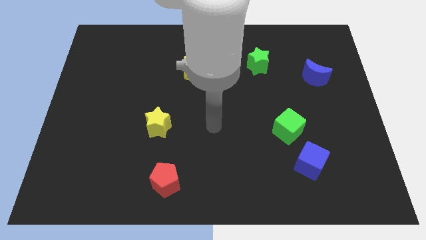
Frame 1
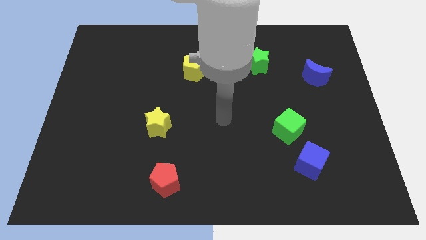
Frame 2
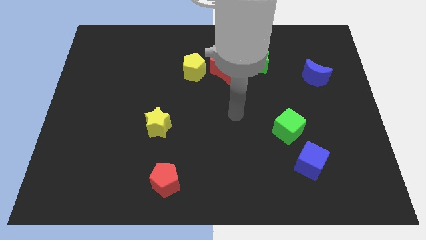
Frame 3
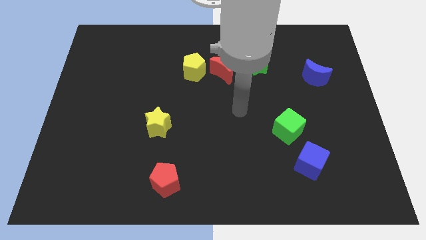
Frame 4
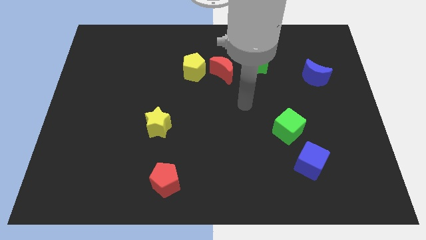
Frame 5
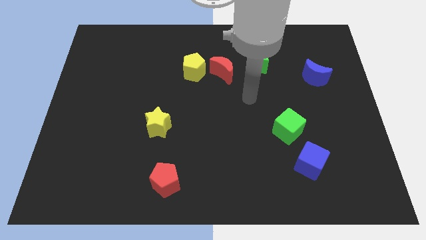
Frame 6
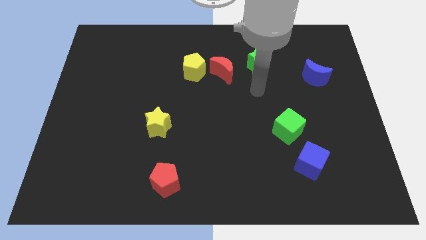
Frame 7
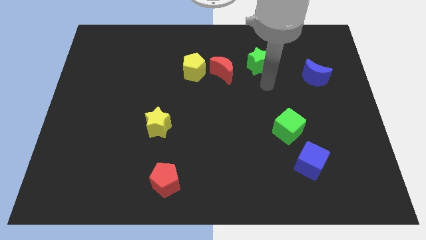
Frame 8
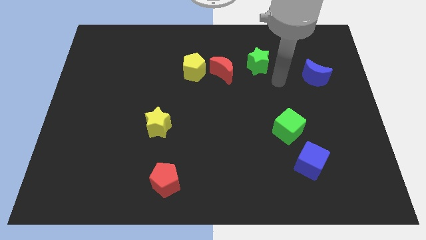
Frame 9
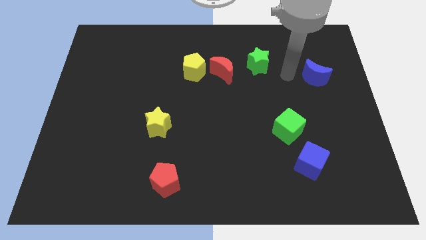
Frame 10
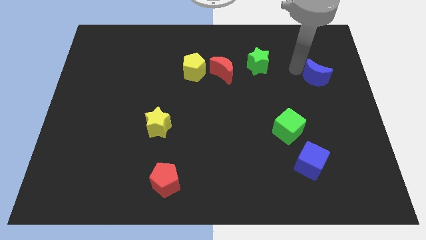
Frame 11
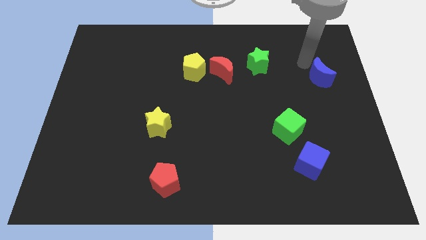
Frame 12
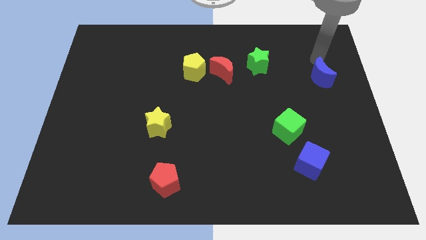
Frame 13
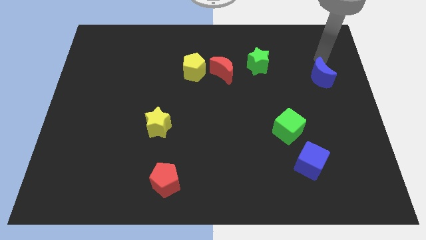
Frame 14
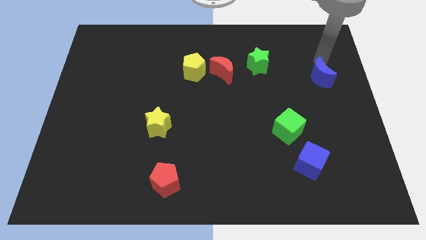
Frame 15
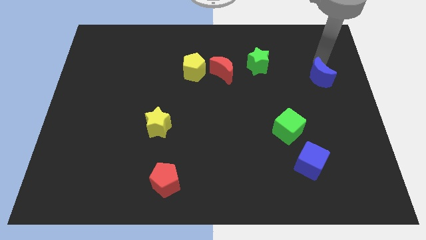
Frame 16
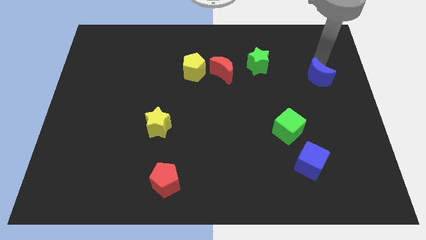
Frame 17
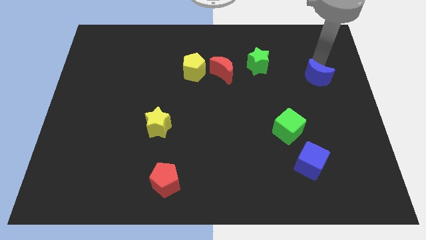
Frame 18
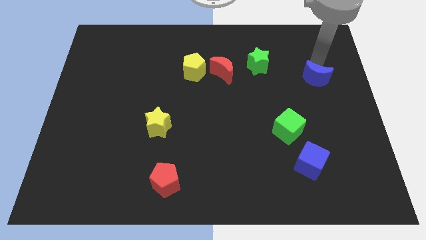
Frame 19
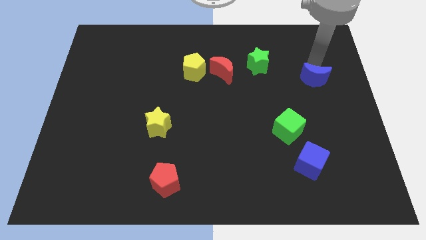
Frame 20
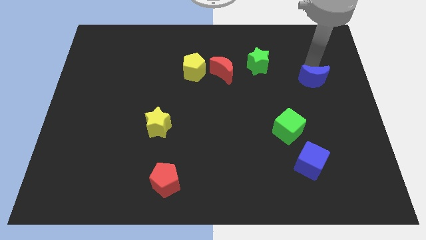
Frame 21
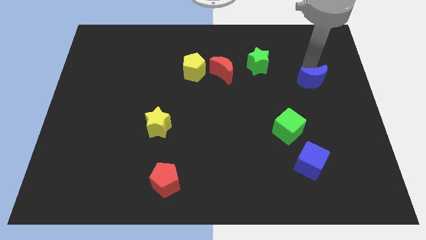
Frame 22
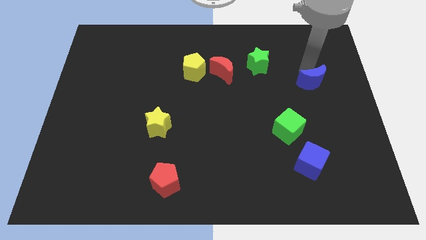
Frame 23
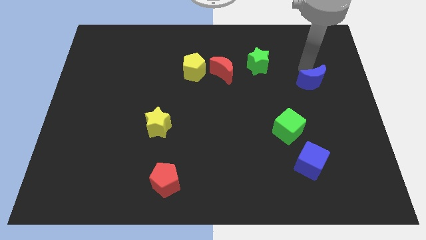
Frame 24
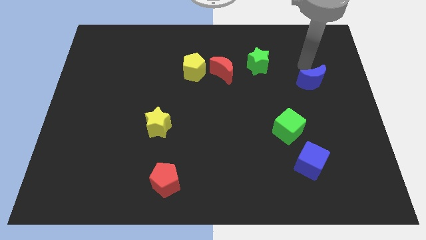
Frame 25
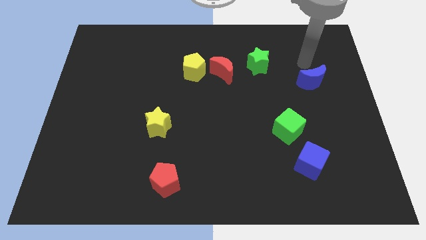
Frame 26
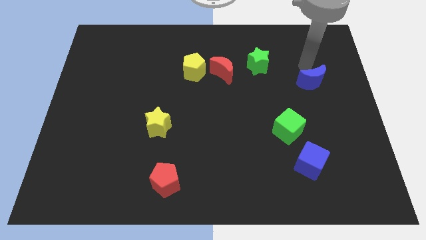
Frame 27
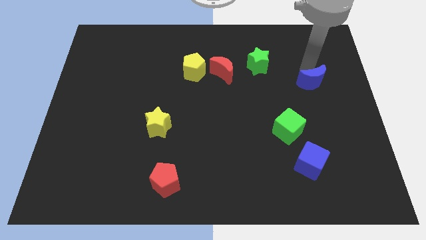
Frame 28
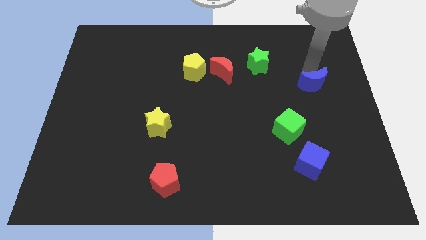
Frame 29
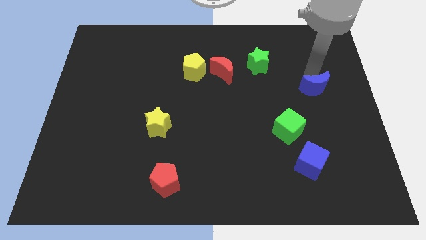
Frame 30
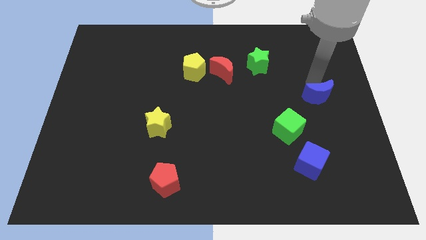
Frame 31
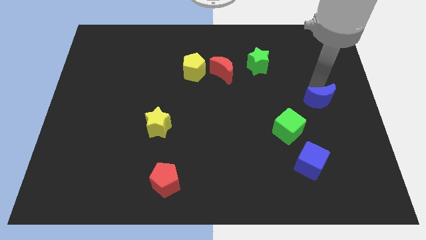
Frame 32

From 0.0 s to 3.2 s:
move the blue moon downwards a little

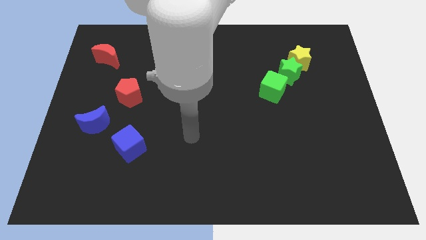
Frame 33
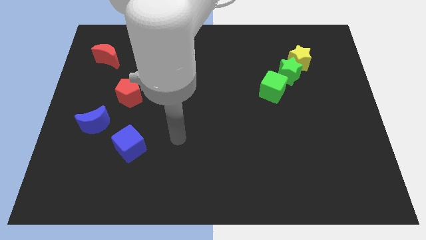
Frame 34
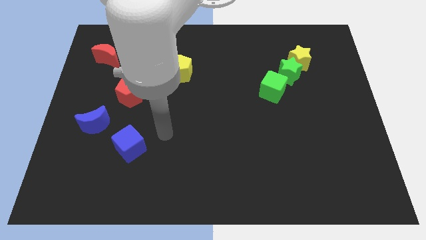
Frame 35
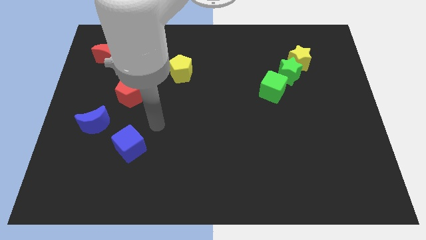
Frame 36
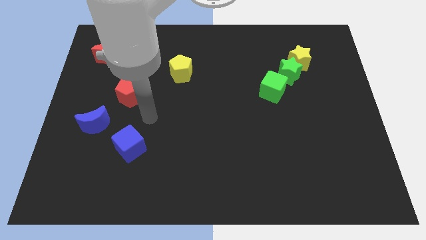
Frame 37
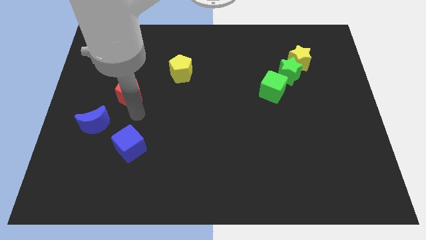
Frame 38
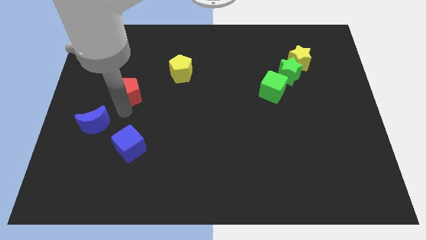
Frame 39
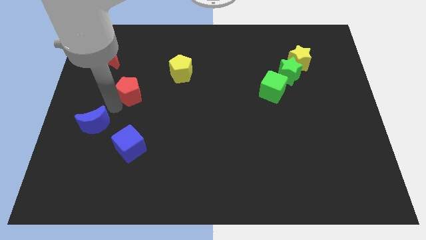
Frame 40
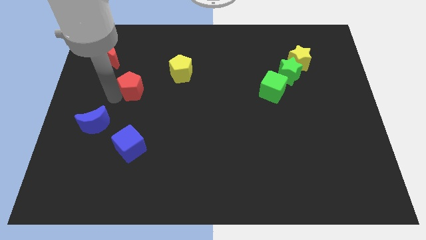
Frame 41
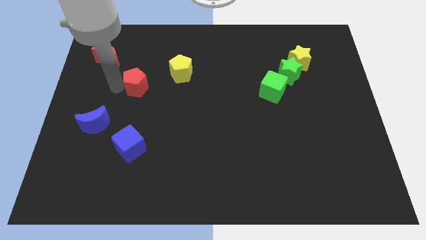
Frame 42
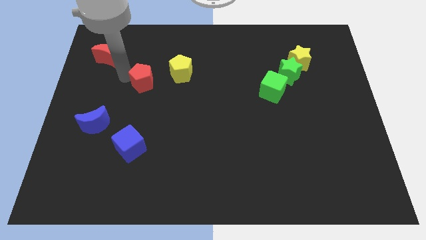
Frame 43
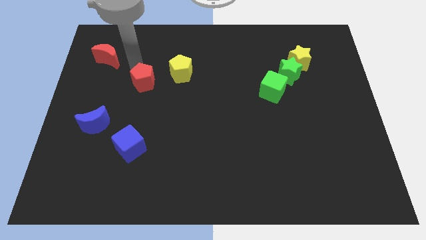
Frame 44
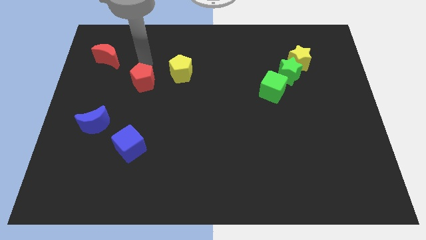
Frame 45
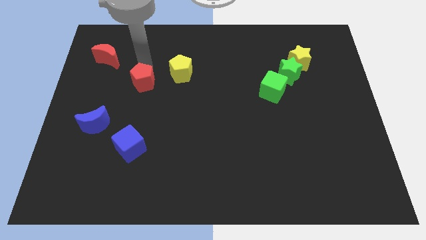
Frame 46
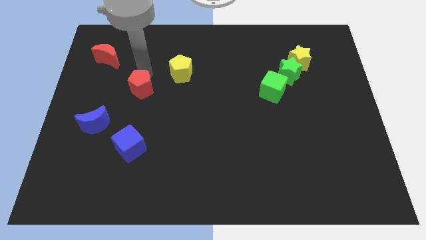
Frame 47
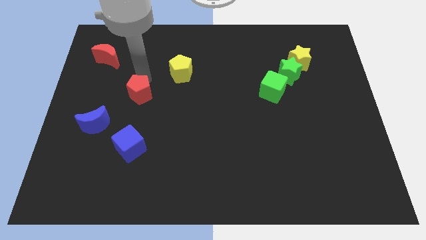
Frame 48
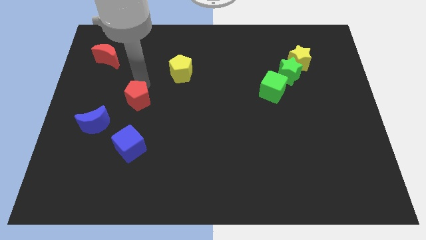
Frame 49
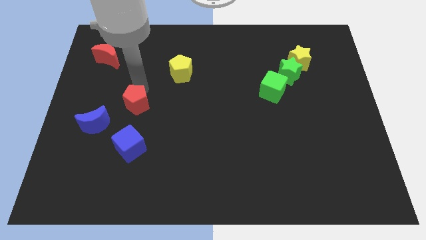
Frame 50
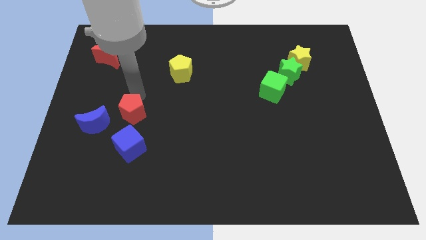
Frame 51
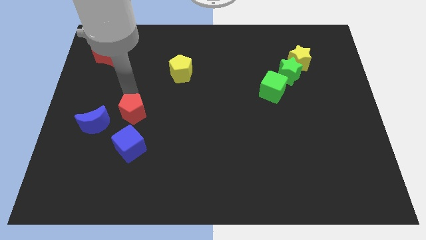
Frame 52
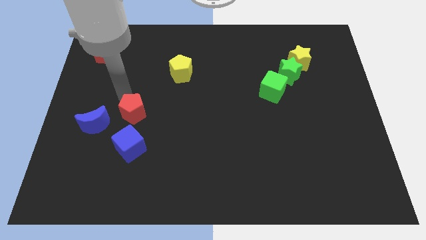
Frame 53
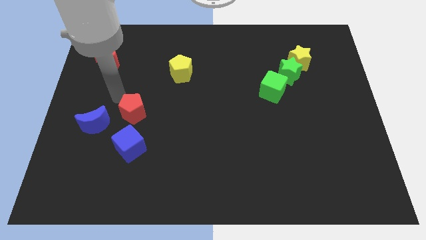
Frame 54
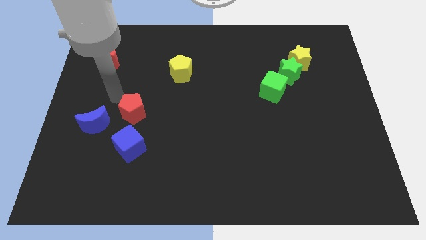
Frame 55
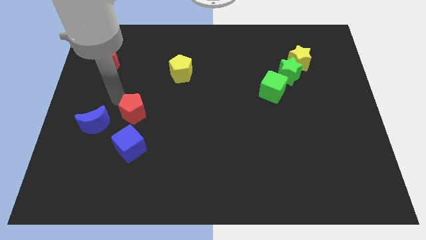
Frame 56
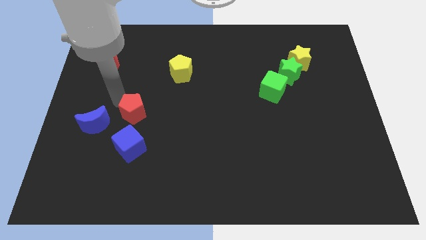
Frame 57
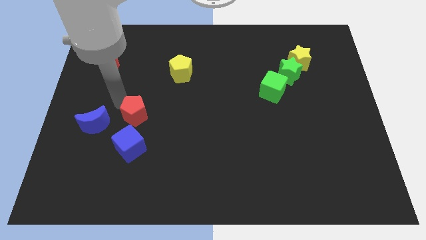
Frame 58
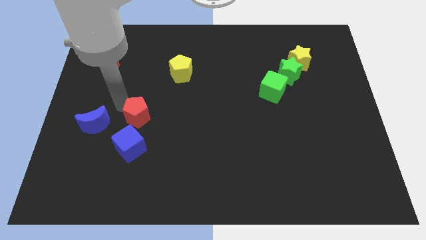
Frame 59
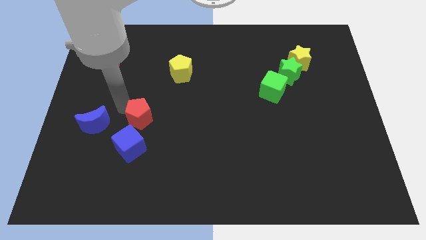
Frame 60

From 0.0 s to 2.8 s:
slightly push the red pentagon diagonally down and to the right

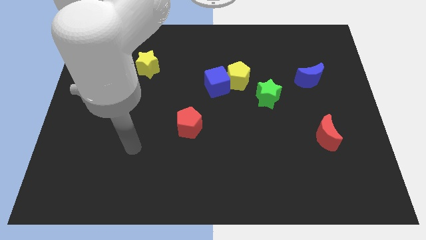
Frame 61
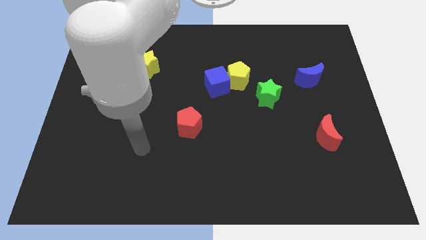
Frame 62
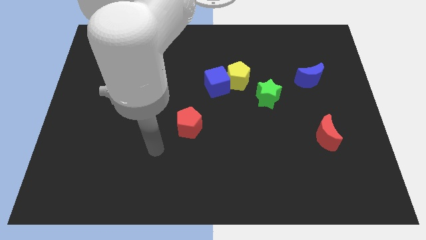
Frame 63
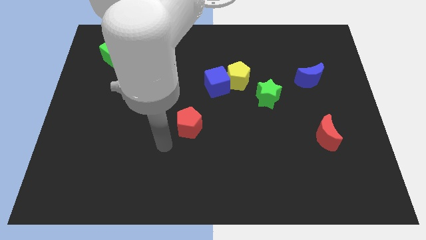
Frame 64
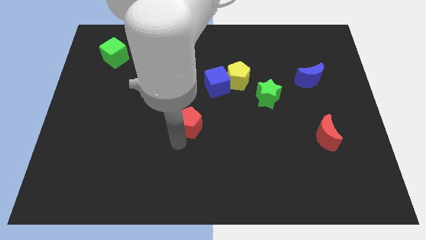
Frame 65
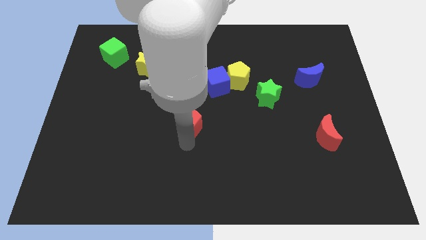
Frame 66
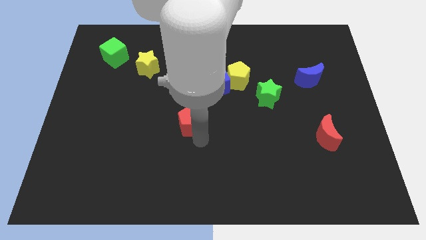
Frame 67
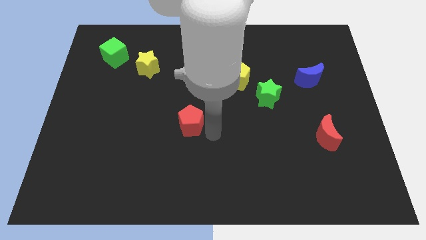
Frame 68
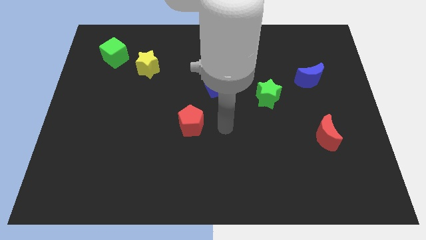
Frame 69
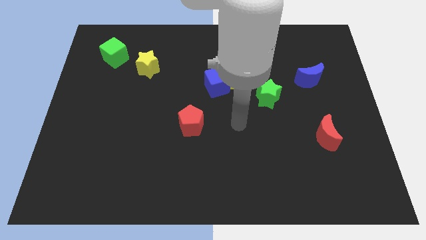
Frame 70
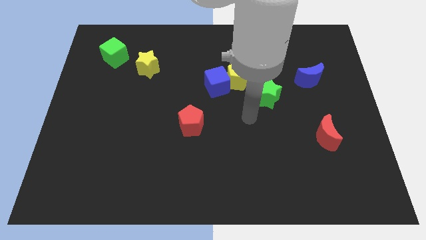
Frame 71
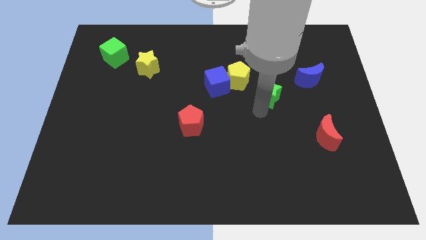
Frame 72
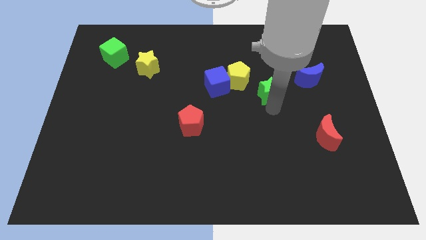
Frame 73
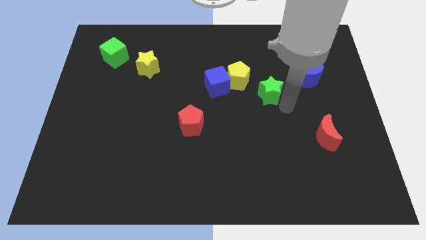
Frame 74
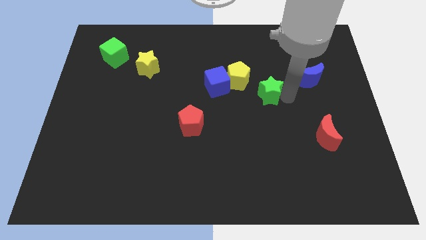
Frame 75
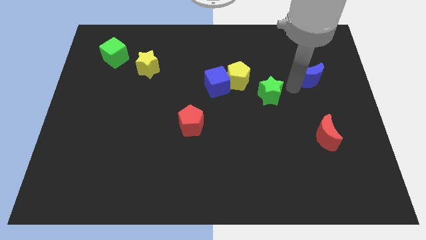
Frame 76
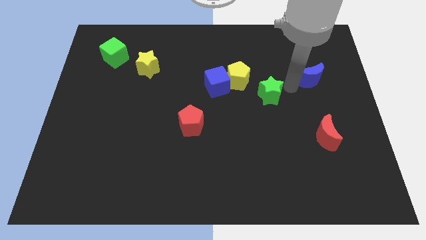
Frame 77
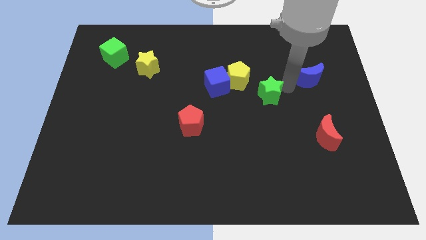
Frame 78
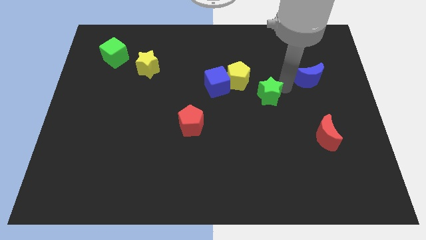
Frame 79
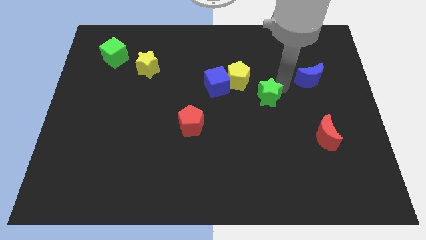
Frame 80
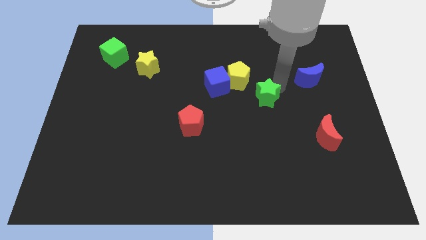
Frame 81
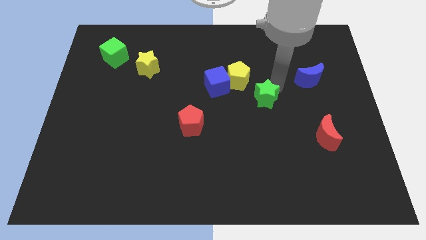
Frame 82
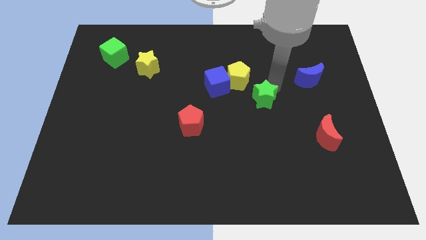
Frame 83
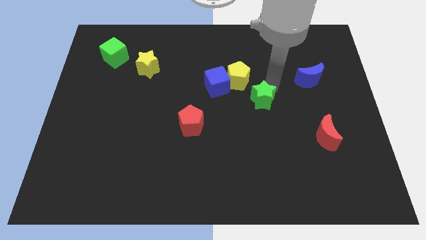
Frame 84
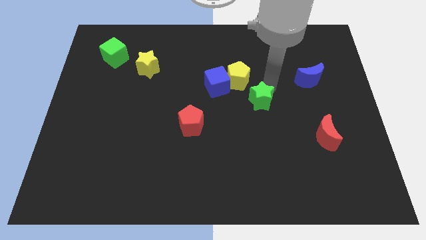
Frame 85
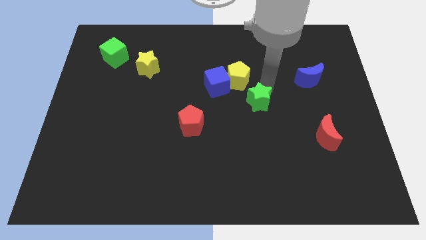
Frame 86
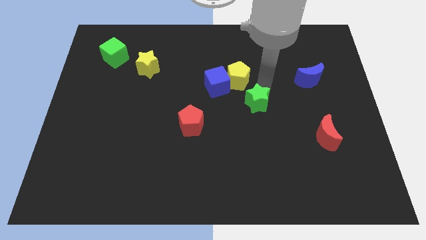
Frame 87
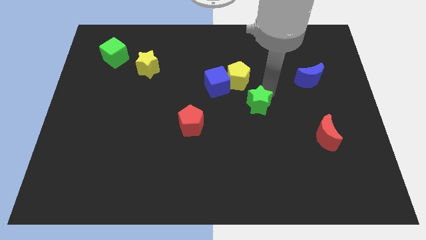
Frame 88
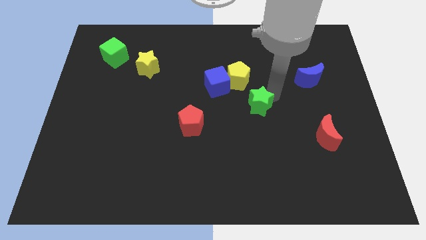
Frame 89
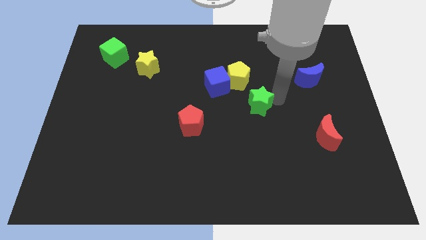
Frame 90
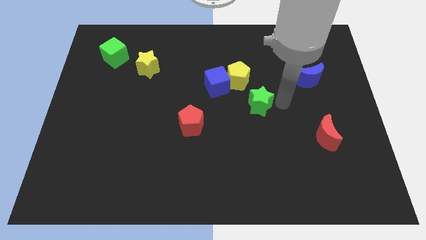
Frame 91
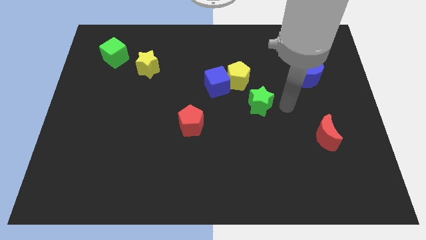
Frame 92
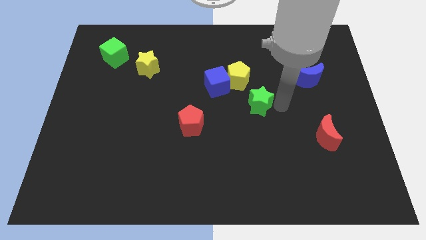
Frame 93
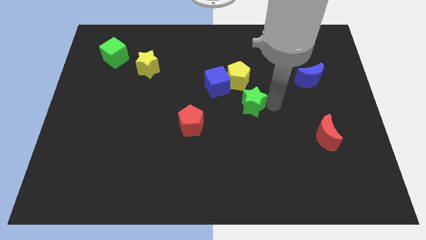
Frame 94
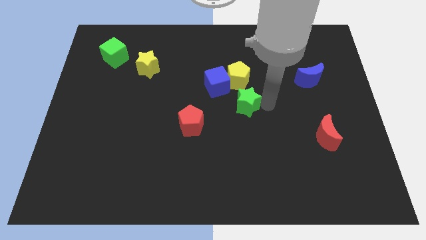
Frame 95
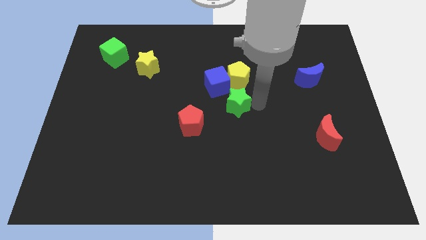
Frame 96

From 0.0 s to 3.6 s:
move the green star left slightly
